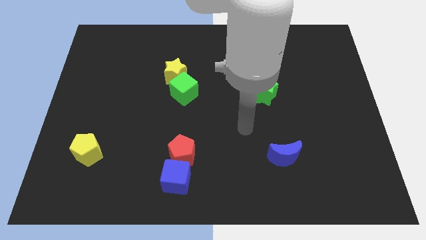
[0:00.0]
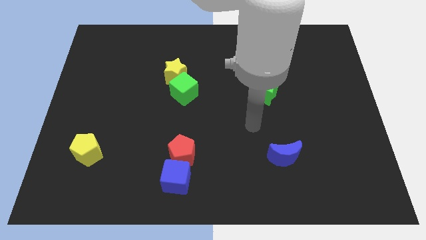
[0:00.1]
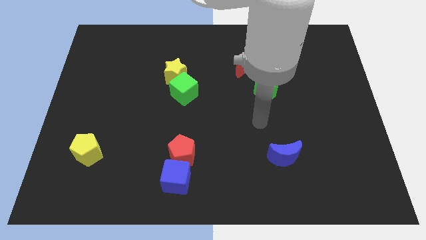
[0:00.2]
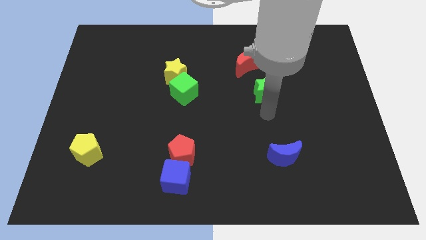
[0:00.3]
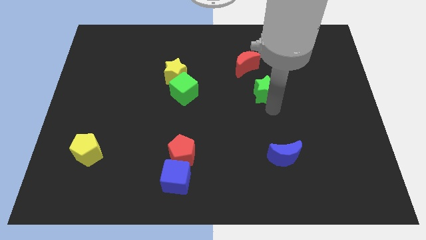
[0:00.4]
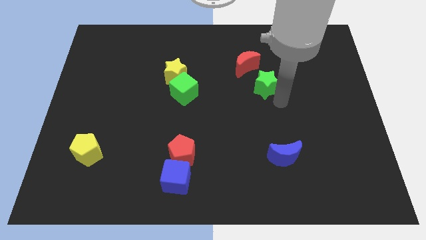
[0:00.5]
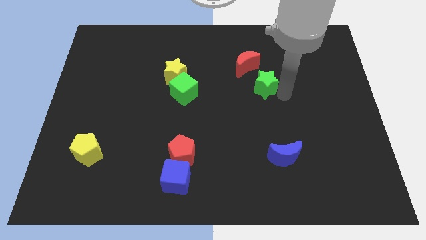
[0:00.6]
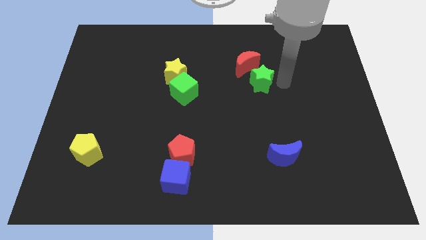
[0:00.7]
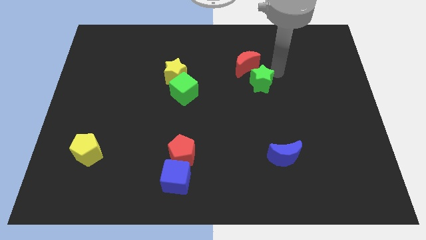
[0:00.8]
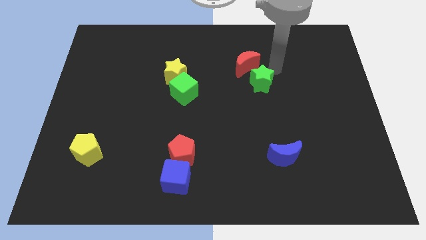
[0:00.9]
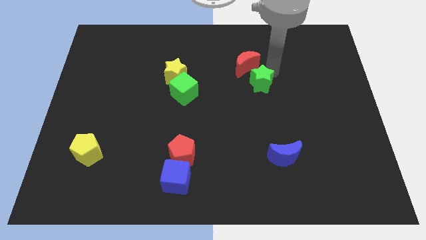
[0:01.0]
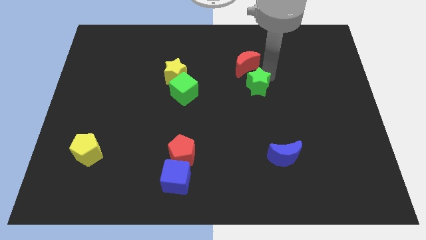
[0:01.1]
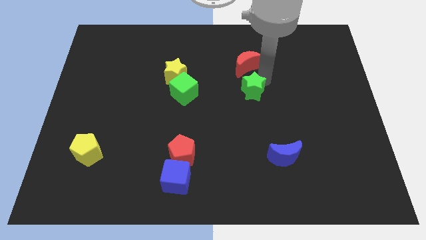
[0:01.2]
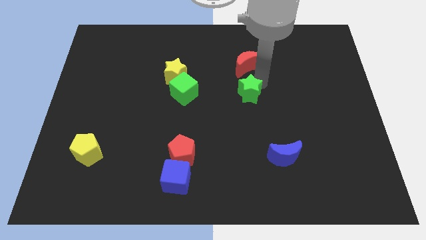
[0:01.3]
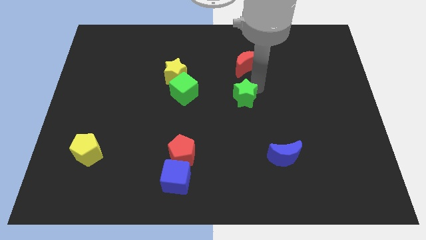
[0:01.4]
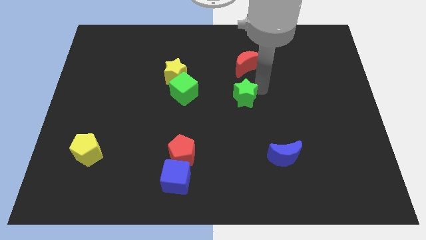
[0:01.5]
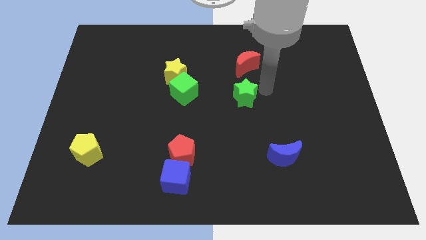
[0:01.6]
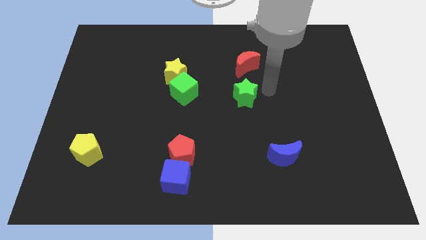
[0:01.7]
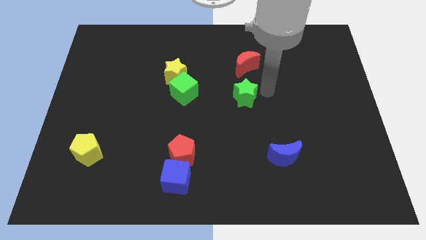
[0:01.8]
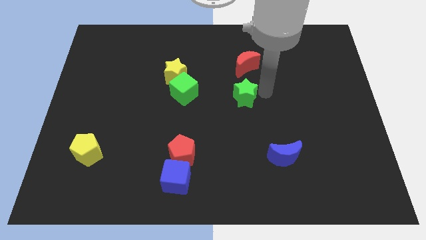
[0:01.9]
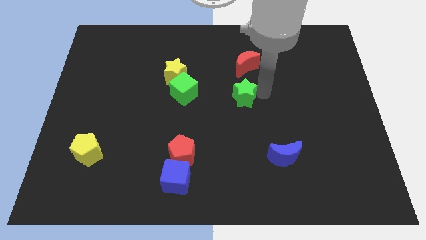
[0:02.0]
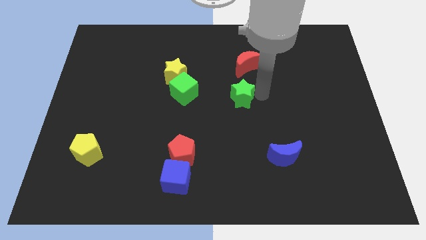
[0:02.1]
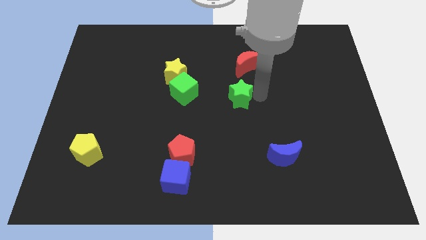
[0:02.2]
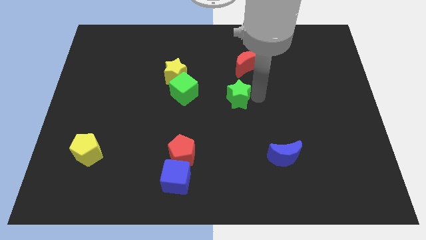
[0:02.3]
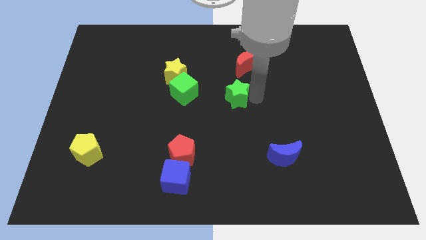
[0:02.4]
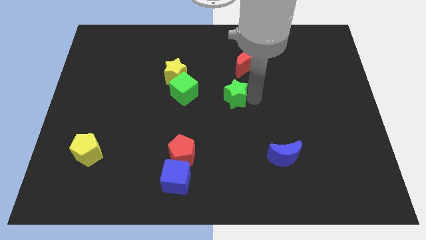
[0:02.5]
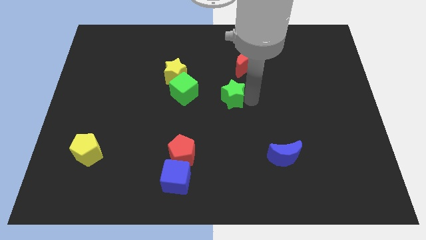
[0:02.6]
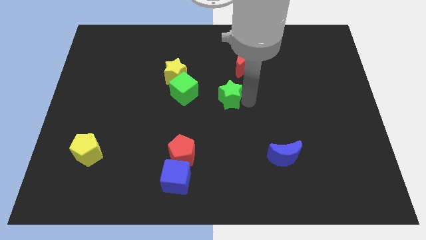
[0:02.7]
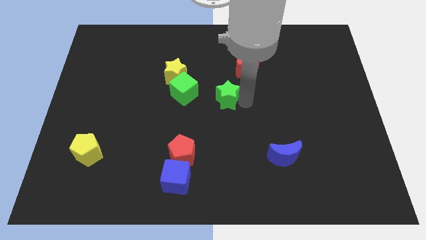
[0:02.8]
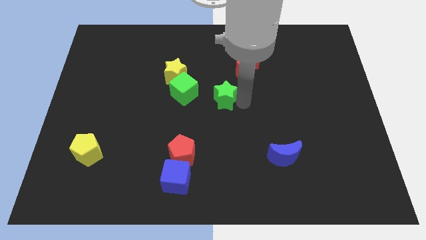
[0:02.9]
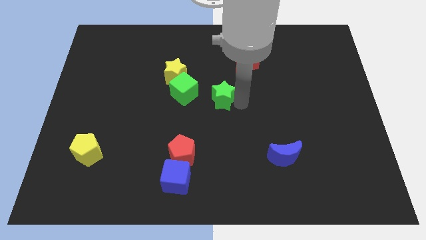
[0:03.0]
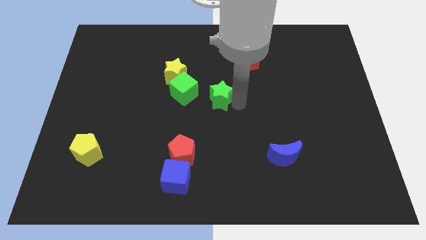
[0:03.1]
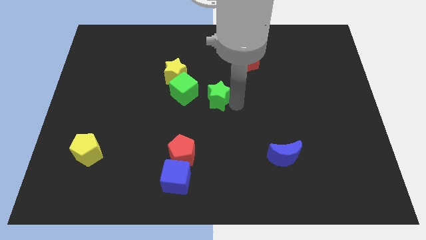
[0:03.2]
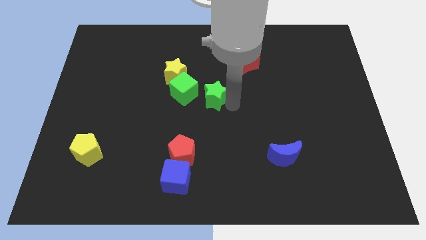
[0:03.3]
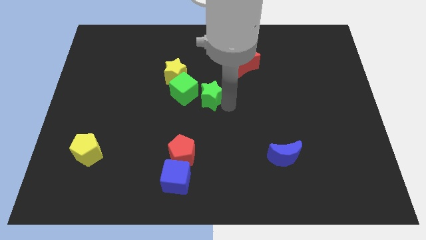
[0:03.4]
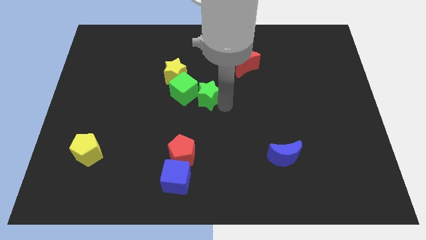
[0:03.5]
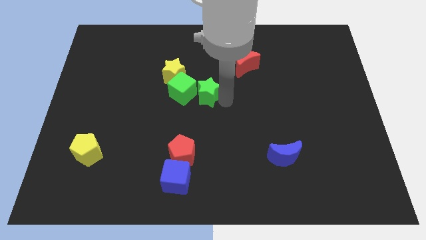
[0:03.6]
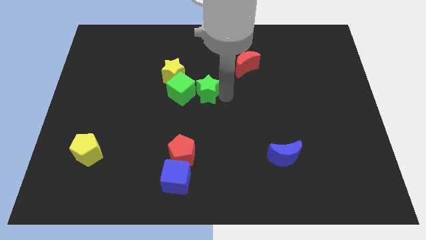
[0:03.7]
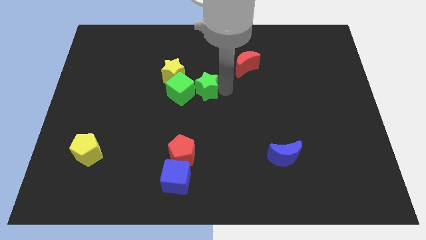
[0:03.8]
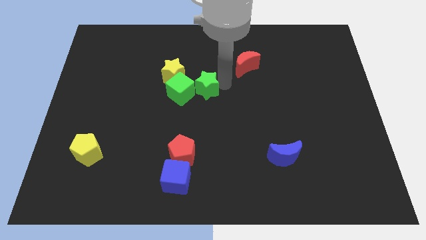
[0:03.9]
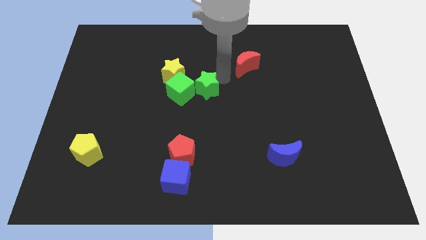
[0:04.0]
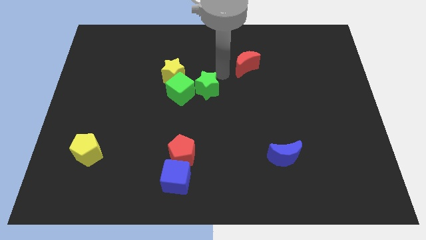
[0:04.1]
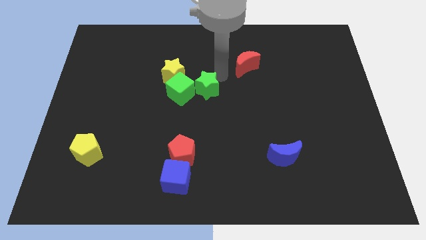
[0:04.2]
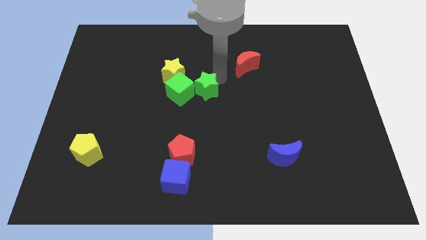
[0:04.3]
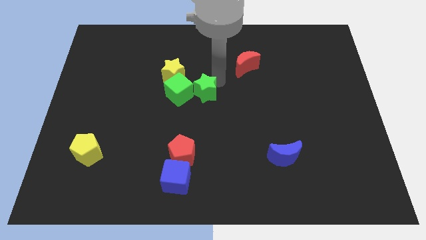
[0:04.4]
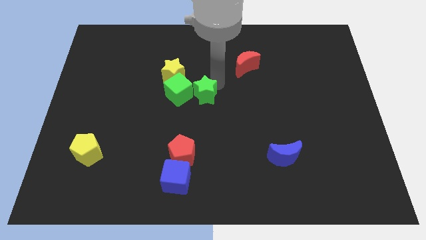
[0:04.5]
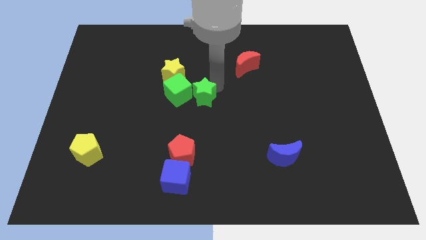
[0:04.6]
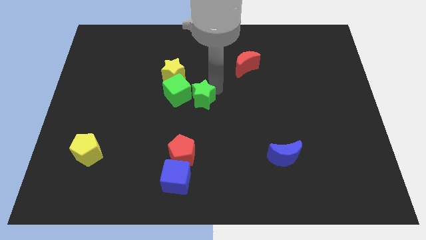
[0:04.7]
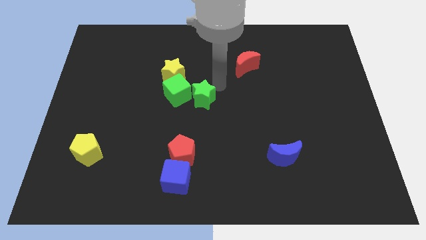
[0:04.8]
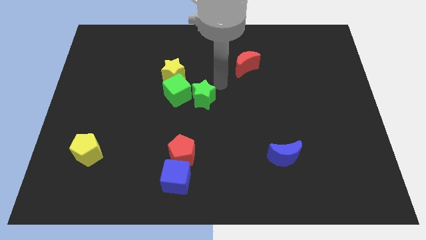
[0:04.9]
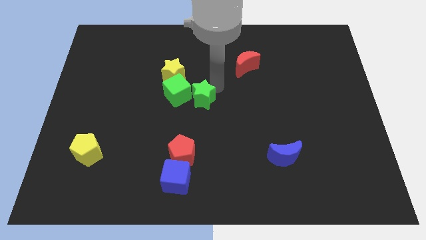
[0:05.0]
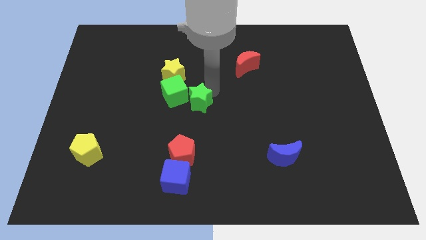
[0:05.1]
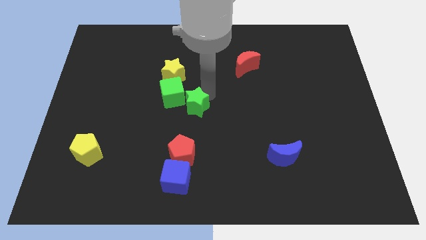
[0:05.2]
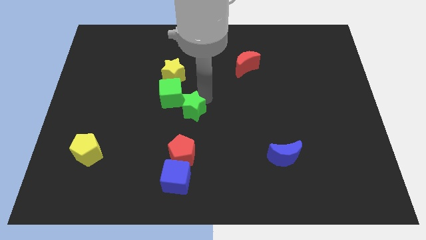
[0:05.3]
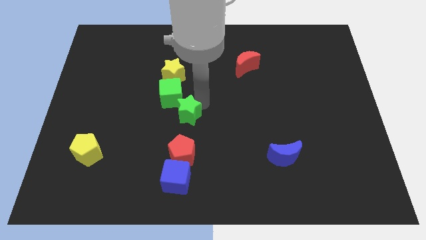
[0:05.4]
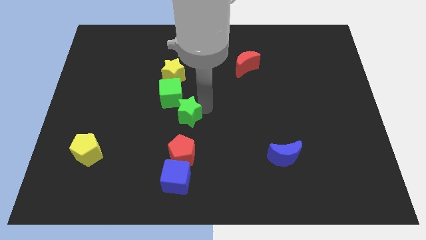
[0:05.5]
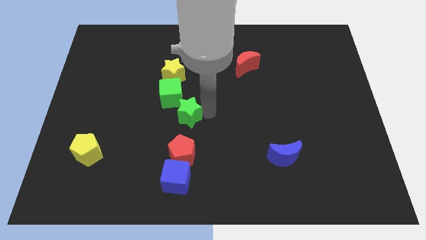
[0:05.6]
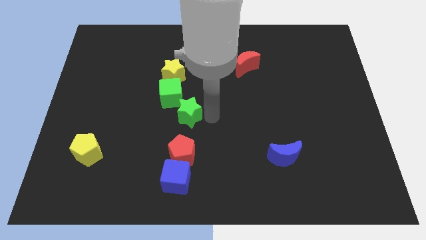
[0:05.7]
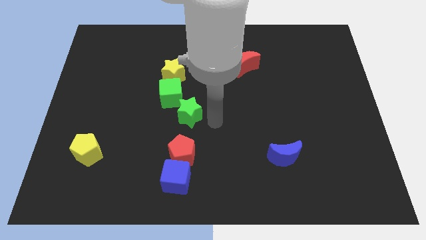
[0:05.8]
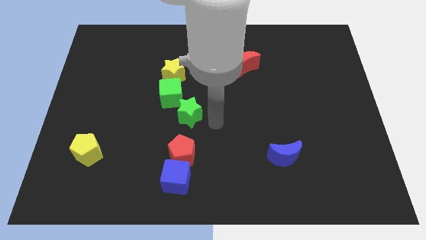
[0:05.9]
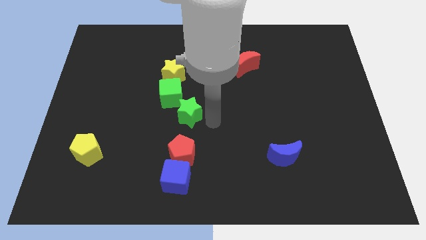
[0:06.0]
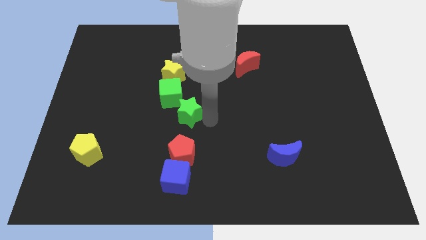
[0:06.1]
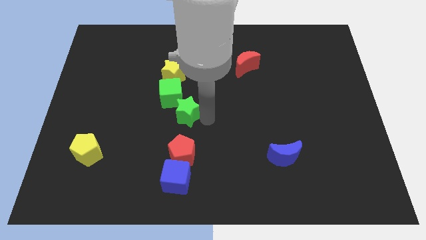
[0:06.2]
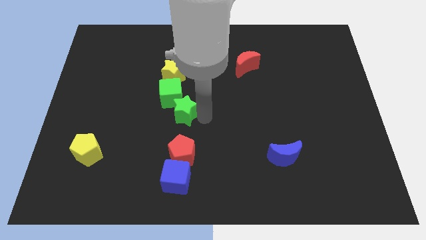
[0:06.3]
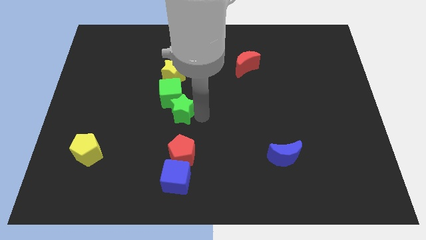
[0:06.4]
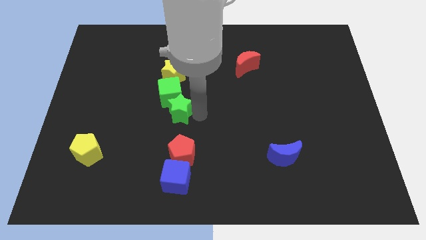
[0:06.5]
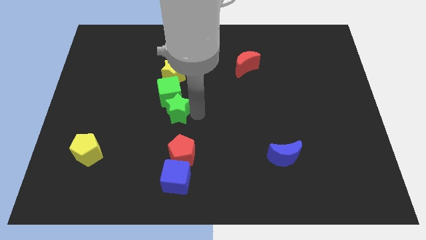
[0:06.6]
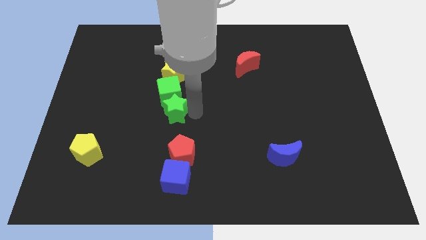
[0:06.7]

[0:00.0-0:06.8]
push the green star left

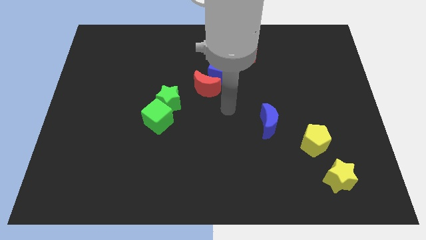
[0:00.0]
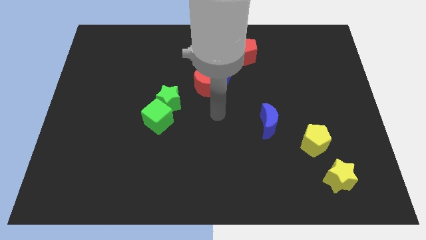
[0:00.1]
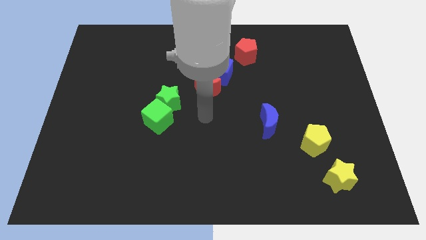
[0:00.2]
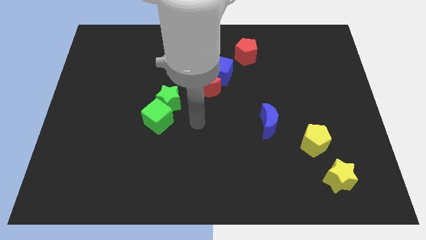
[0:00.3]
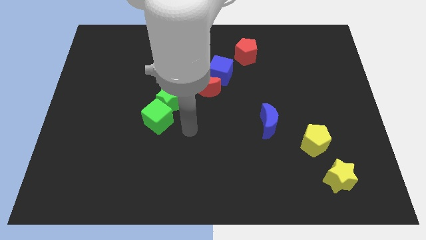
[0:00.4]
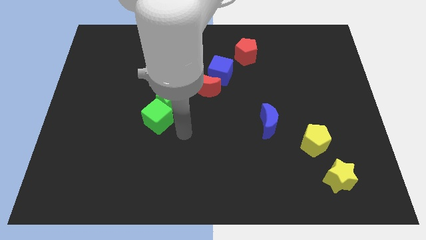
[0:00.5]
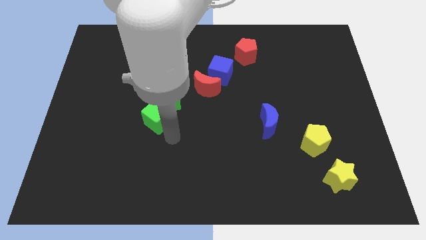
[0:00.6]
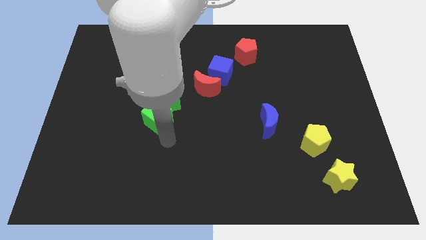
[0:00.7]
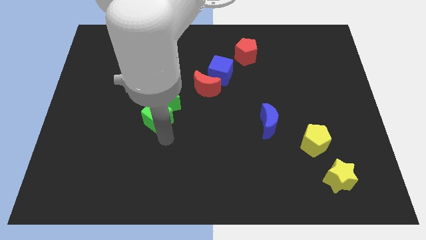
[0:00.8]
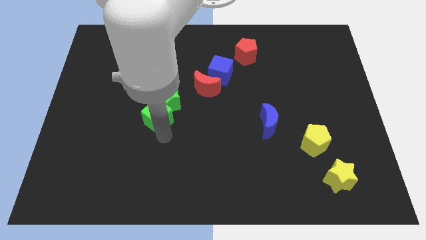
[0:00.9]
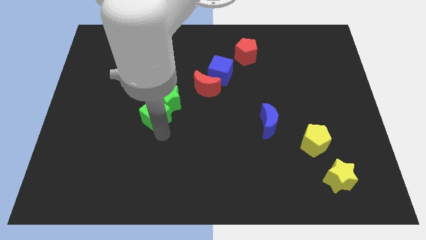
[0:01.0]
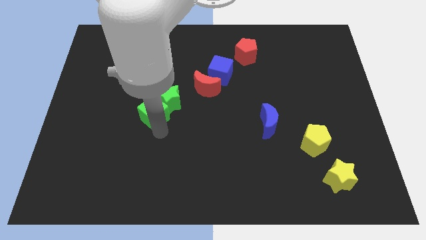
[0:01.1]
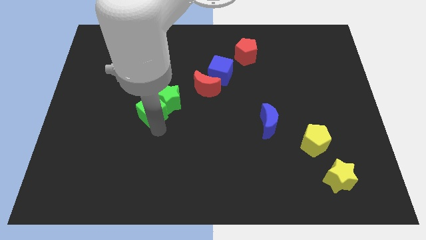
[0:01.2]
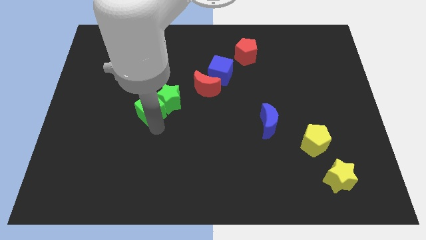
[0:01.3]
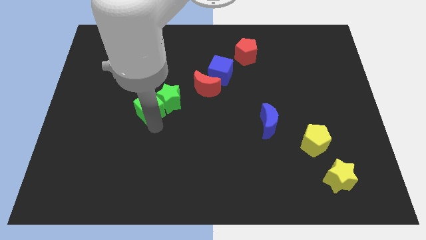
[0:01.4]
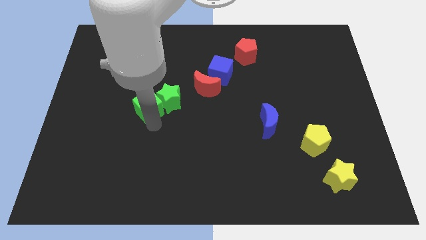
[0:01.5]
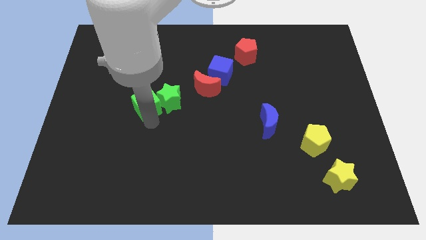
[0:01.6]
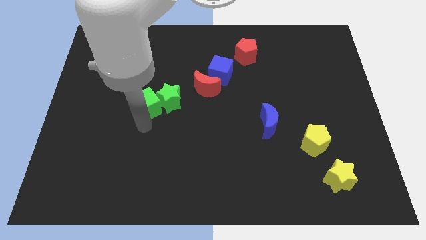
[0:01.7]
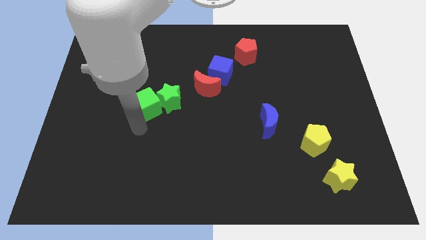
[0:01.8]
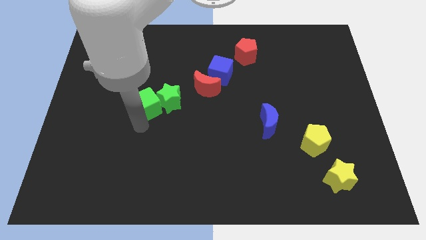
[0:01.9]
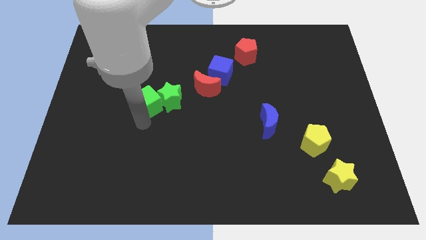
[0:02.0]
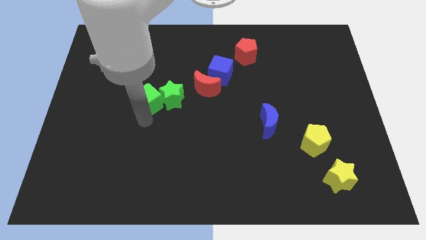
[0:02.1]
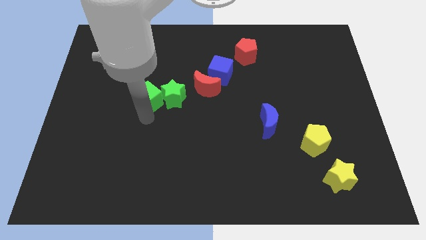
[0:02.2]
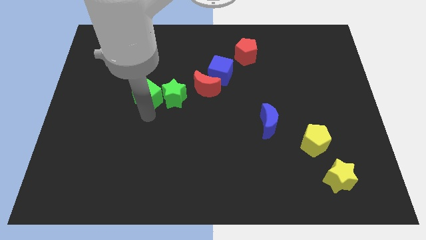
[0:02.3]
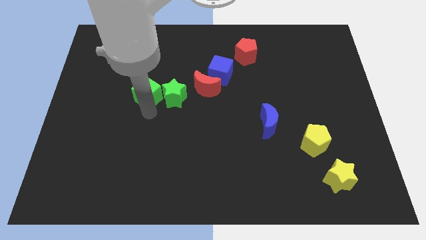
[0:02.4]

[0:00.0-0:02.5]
slightly push the green cube upwards
